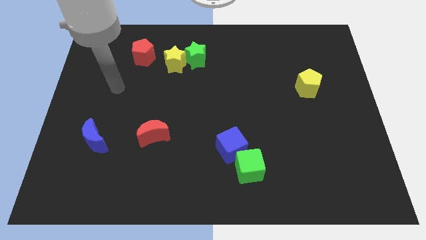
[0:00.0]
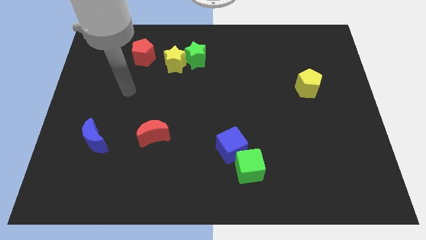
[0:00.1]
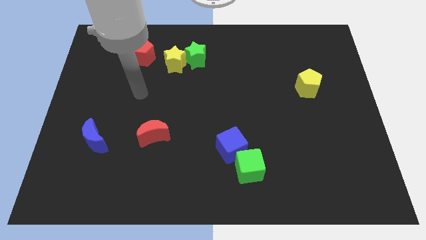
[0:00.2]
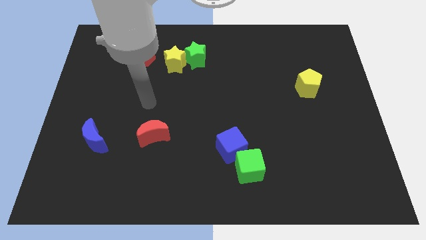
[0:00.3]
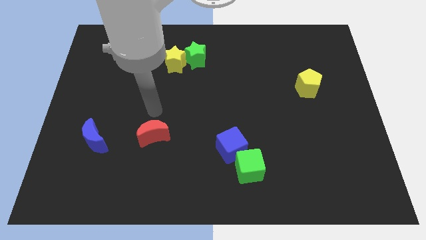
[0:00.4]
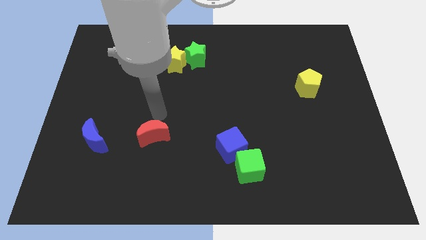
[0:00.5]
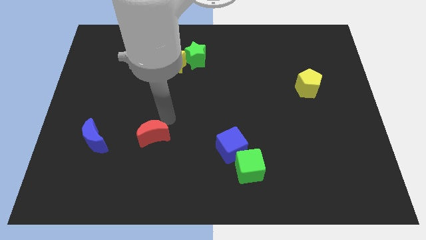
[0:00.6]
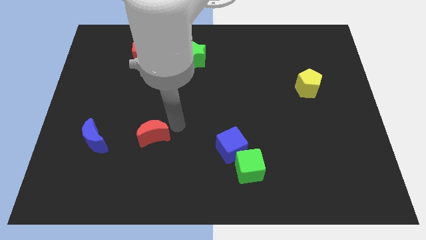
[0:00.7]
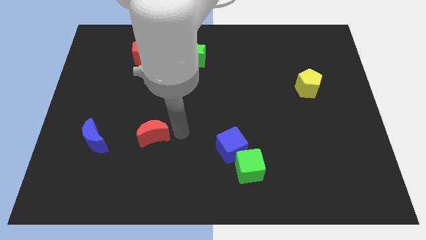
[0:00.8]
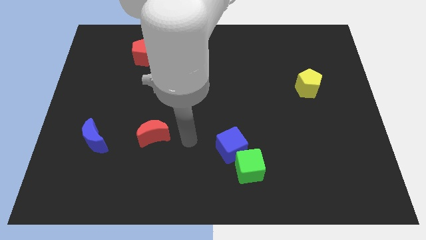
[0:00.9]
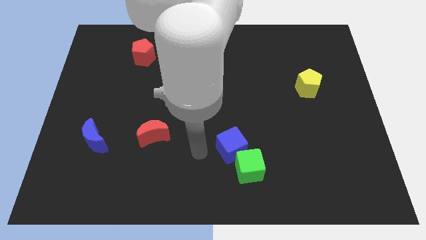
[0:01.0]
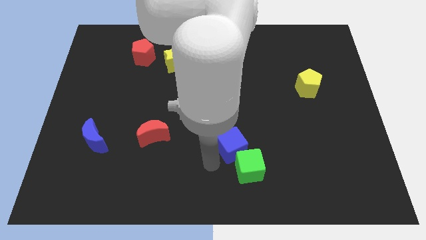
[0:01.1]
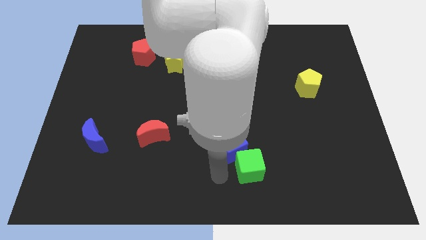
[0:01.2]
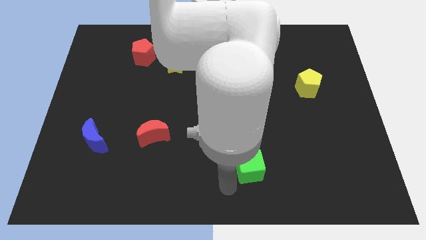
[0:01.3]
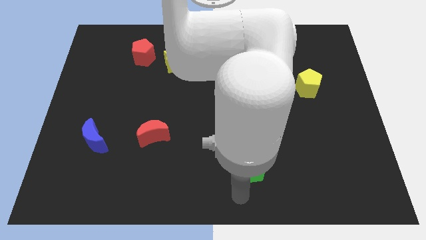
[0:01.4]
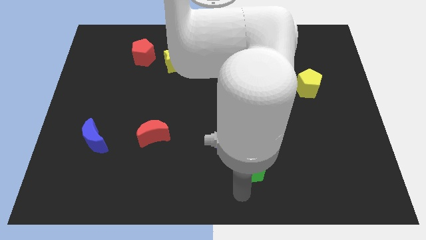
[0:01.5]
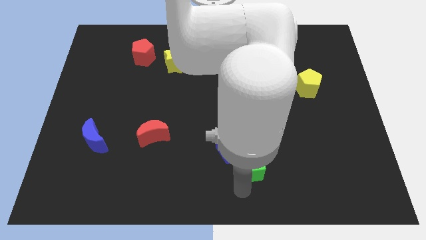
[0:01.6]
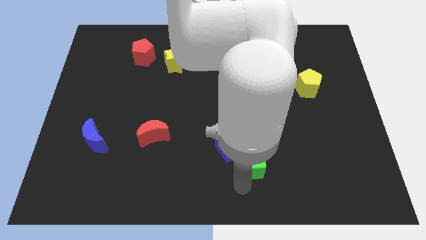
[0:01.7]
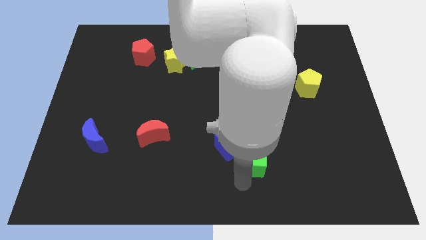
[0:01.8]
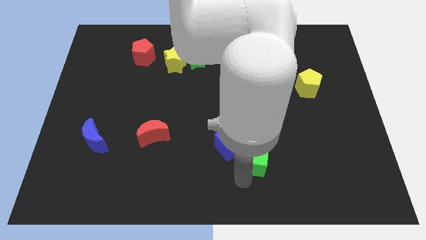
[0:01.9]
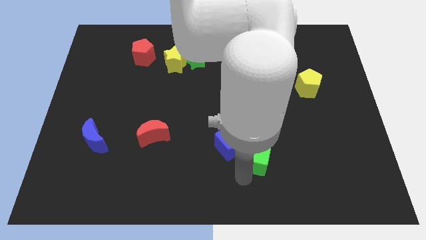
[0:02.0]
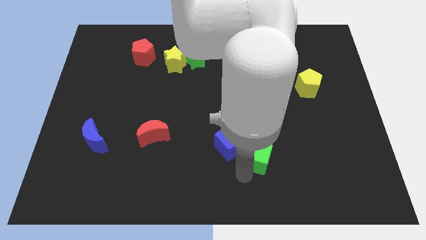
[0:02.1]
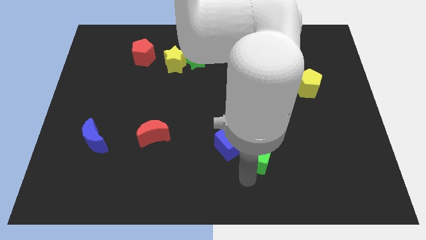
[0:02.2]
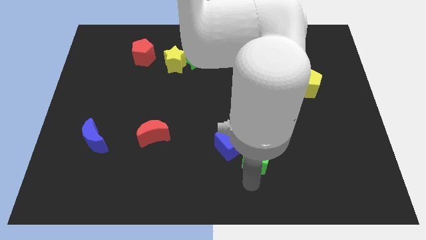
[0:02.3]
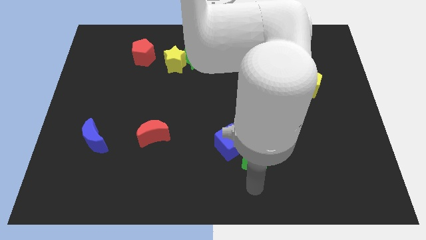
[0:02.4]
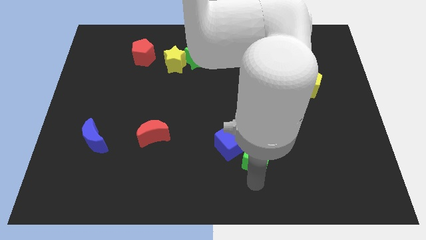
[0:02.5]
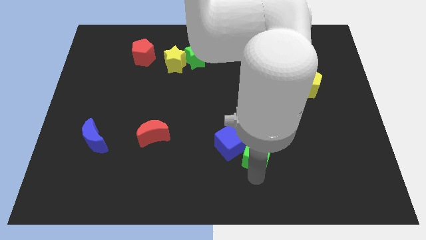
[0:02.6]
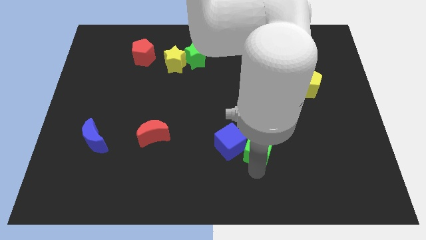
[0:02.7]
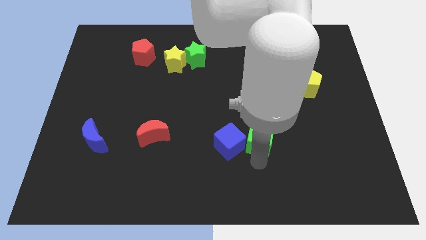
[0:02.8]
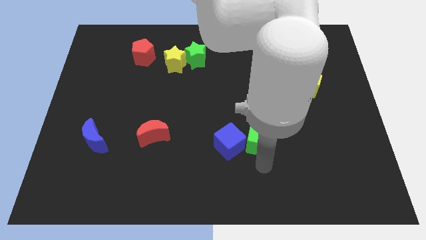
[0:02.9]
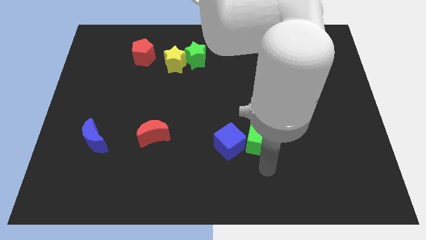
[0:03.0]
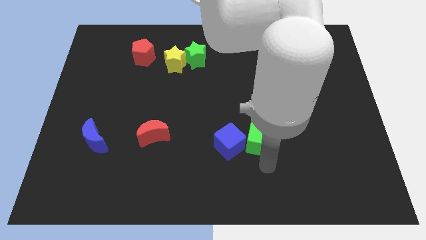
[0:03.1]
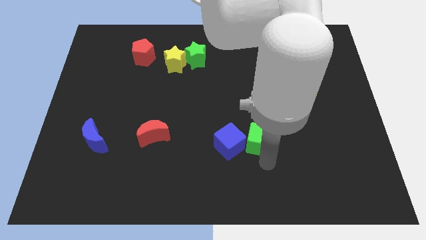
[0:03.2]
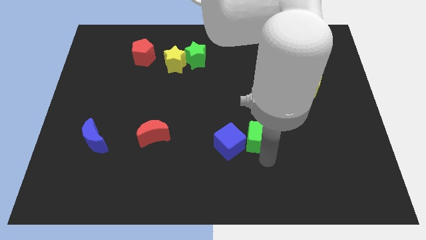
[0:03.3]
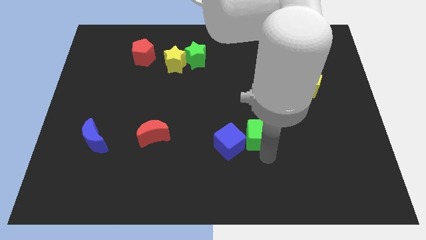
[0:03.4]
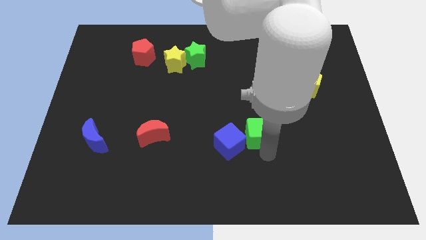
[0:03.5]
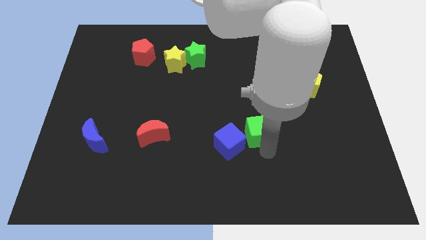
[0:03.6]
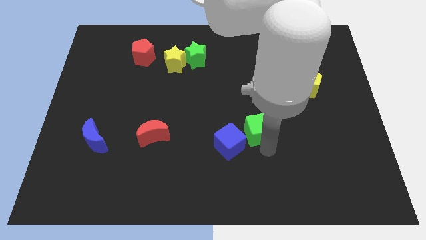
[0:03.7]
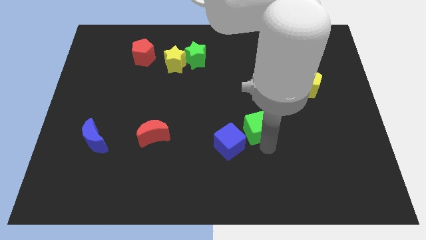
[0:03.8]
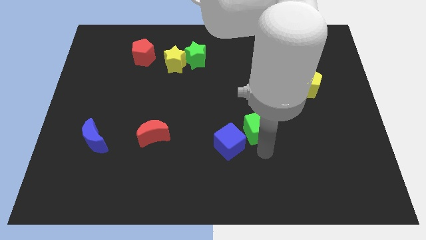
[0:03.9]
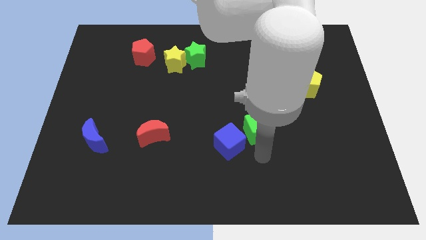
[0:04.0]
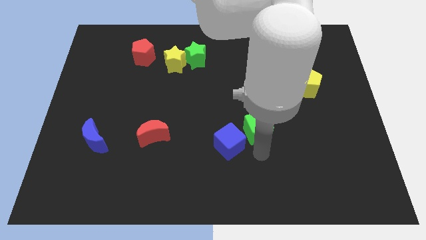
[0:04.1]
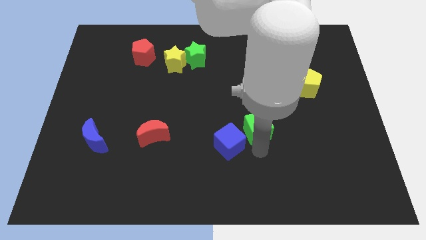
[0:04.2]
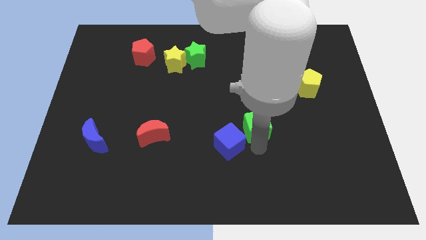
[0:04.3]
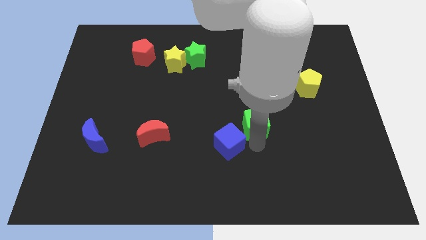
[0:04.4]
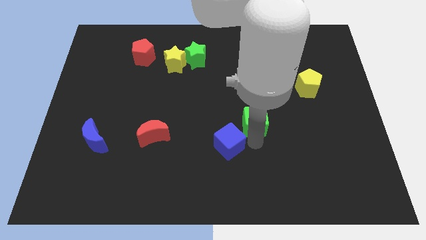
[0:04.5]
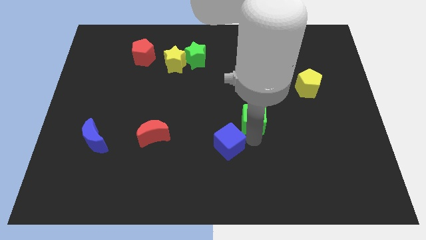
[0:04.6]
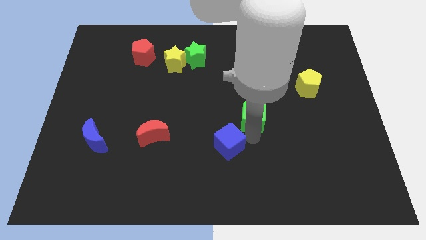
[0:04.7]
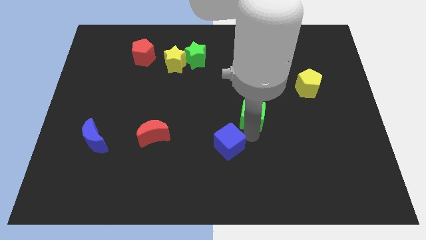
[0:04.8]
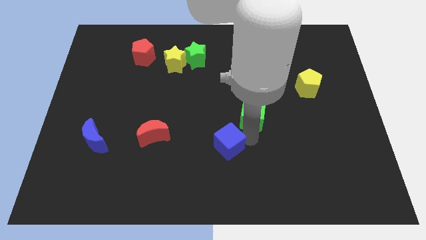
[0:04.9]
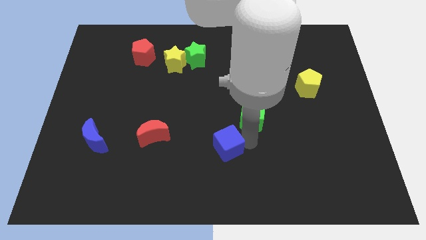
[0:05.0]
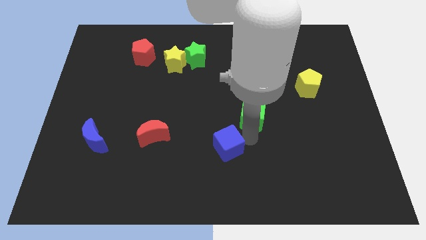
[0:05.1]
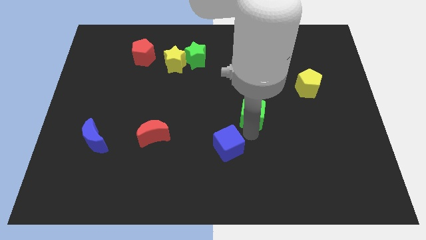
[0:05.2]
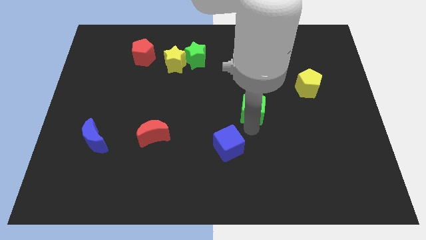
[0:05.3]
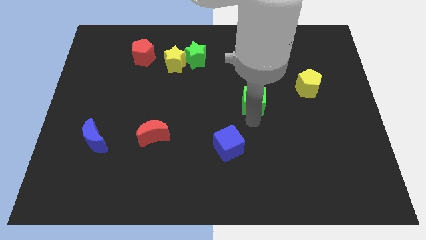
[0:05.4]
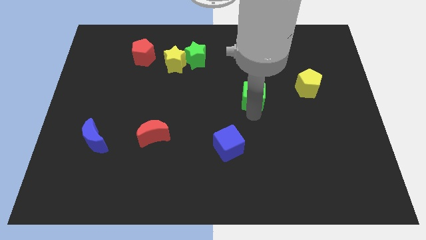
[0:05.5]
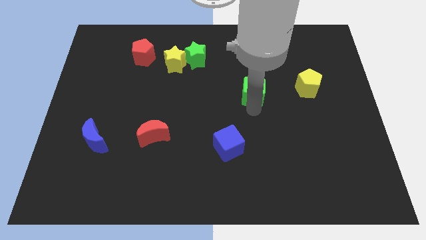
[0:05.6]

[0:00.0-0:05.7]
push the green cube up

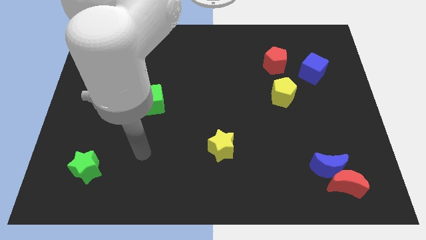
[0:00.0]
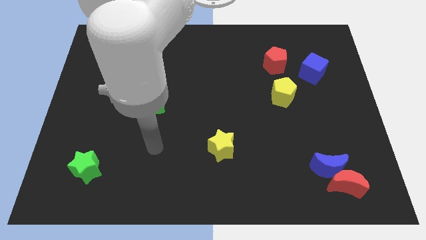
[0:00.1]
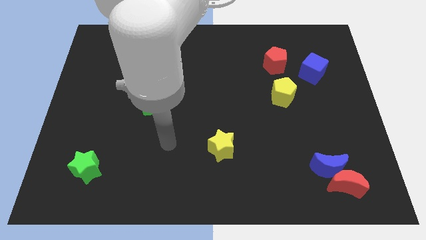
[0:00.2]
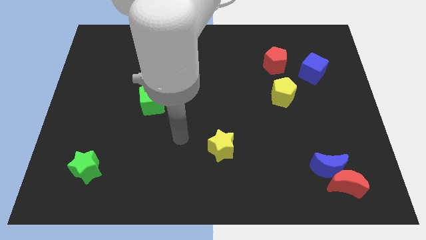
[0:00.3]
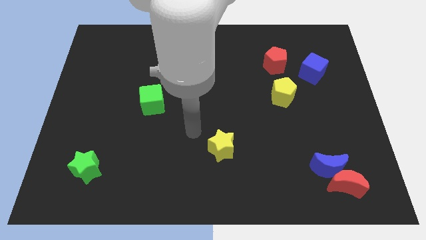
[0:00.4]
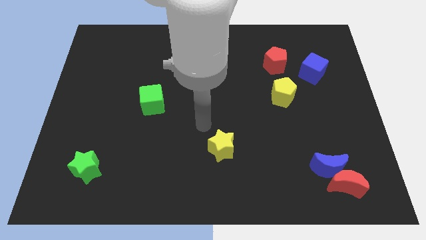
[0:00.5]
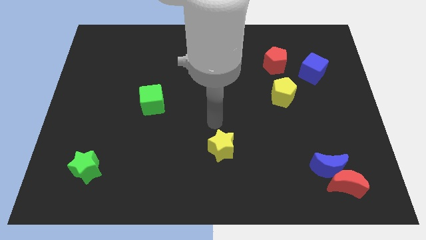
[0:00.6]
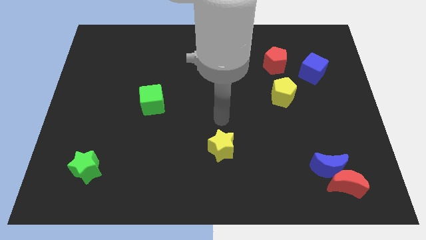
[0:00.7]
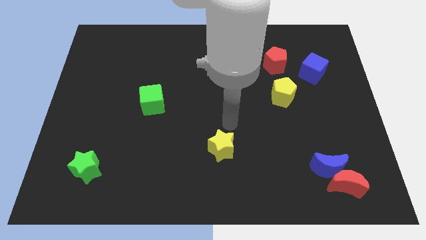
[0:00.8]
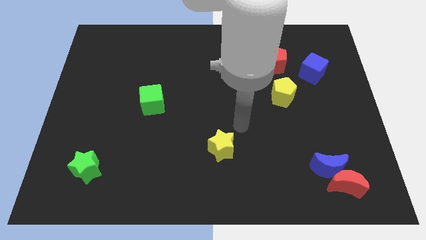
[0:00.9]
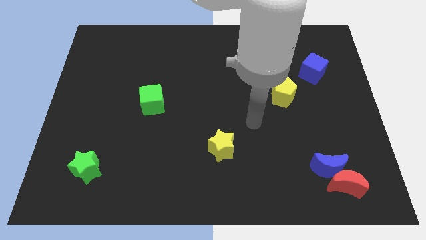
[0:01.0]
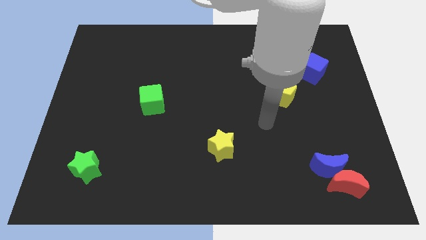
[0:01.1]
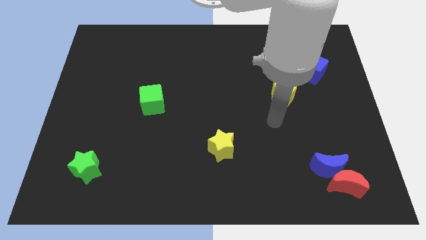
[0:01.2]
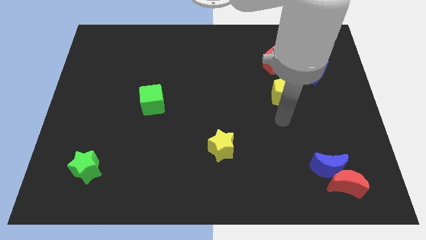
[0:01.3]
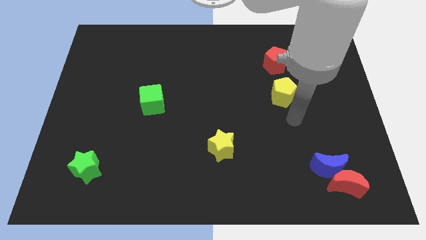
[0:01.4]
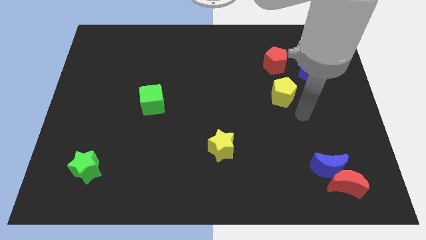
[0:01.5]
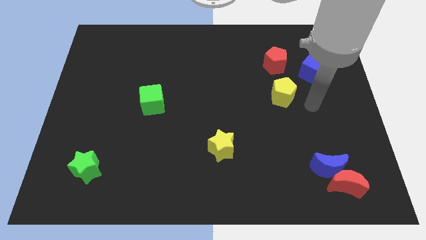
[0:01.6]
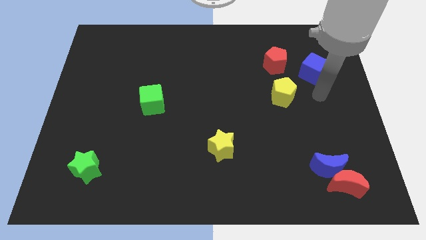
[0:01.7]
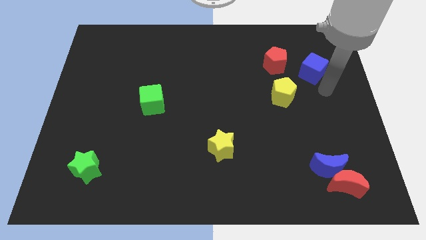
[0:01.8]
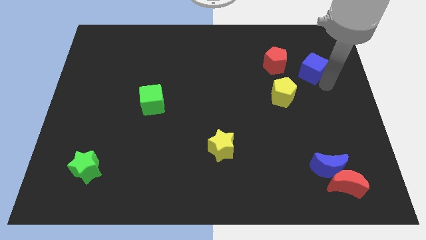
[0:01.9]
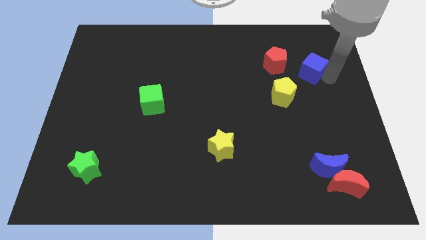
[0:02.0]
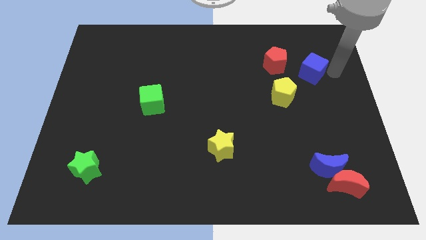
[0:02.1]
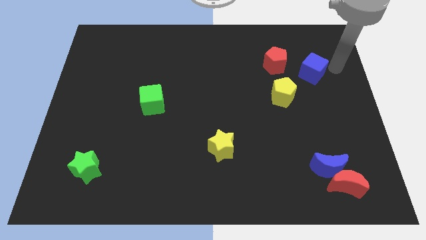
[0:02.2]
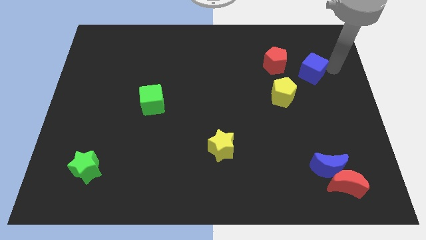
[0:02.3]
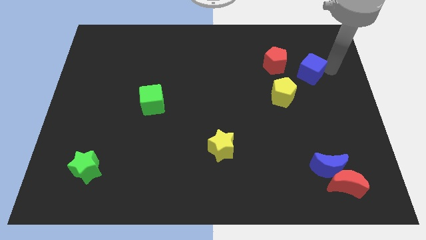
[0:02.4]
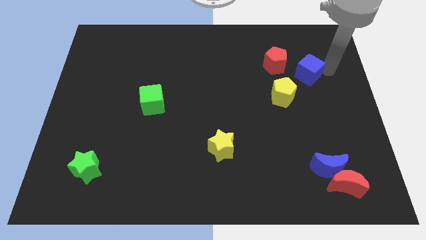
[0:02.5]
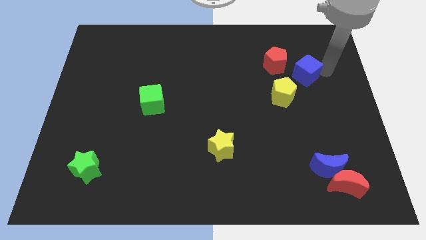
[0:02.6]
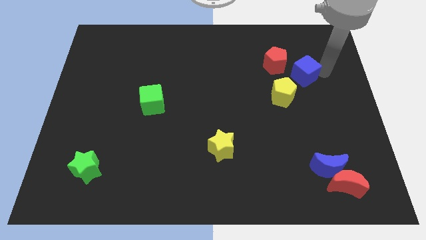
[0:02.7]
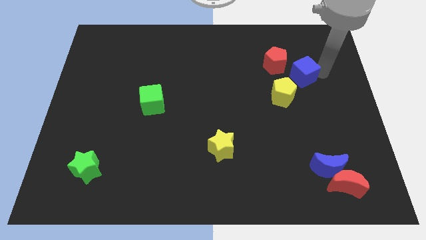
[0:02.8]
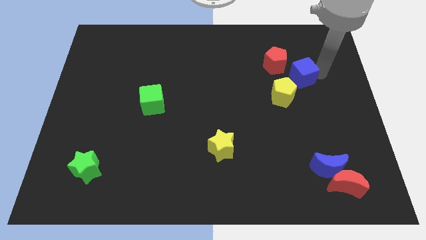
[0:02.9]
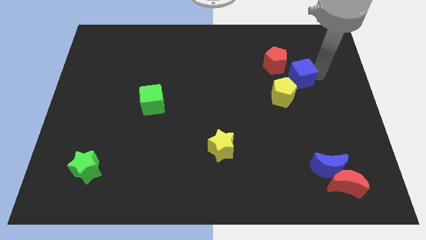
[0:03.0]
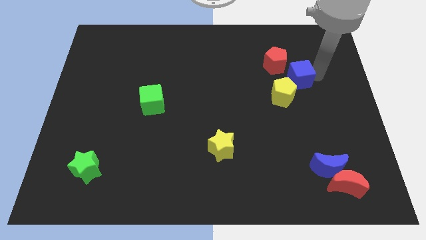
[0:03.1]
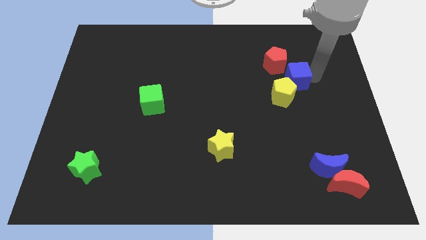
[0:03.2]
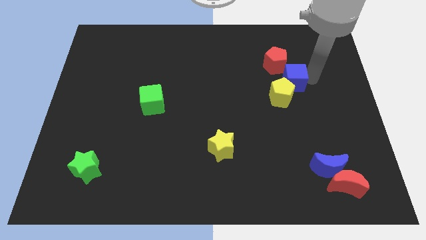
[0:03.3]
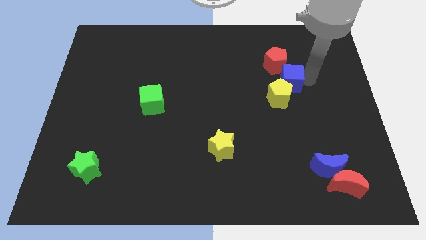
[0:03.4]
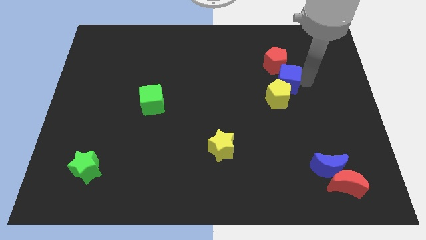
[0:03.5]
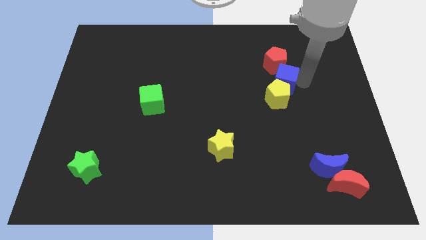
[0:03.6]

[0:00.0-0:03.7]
slightly move the blue cube to the left
